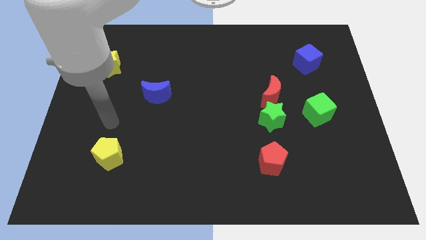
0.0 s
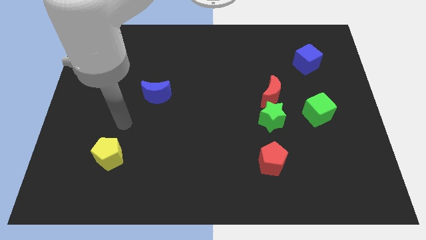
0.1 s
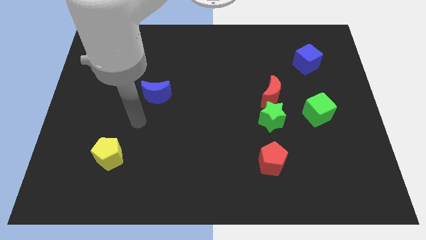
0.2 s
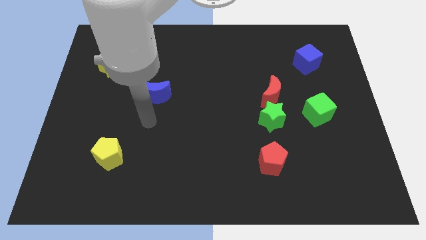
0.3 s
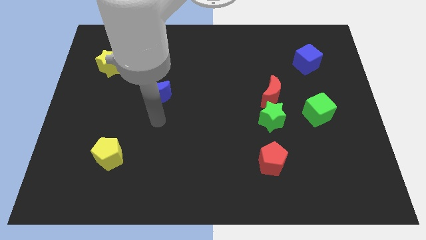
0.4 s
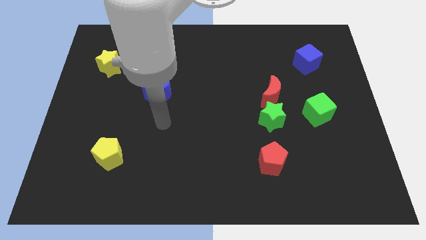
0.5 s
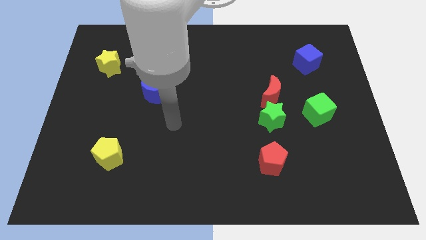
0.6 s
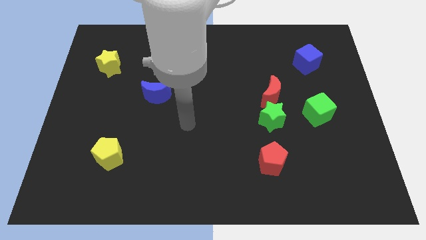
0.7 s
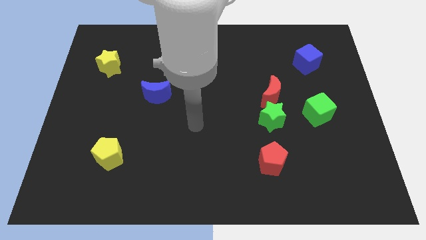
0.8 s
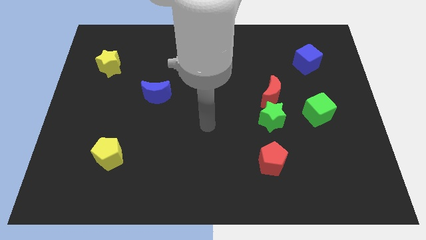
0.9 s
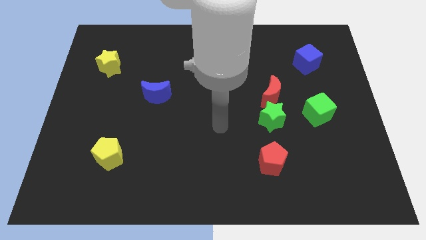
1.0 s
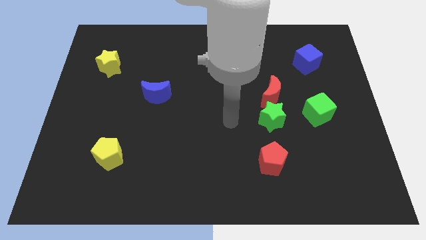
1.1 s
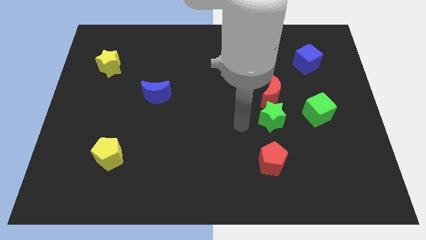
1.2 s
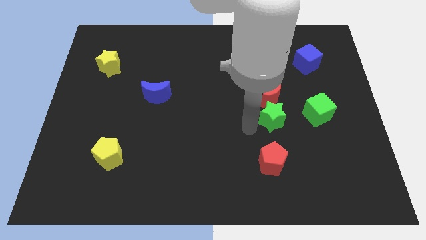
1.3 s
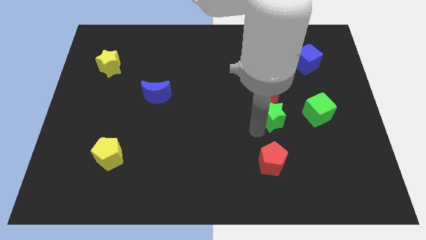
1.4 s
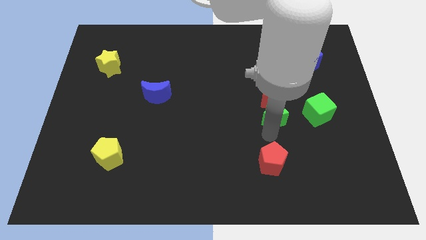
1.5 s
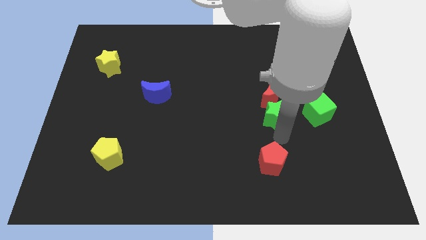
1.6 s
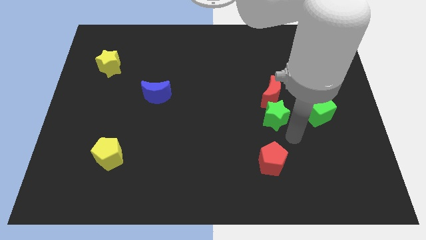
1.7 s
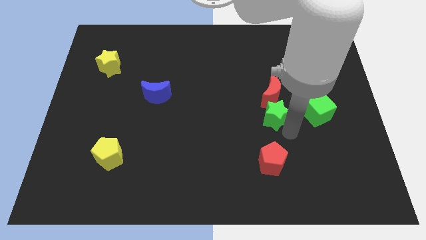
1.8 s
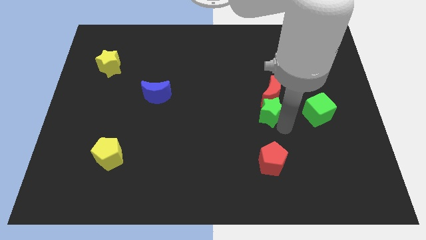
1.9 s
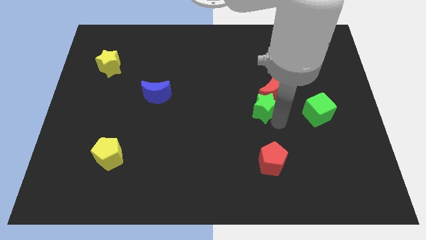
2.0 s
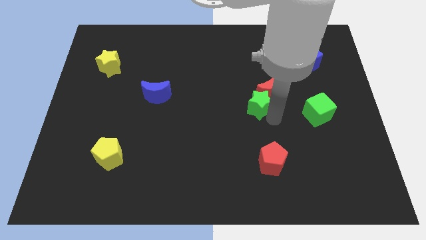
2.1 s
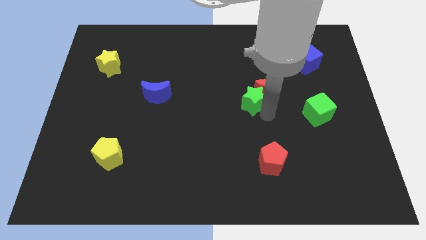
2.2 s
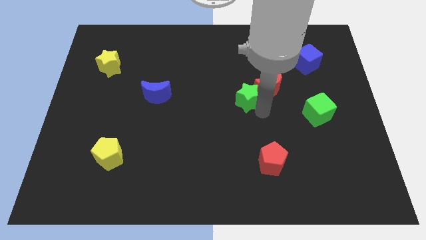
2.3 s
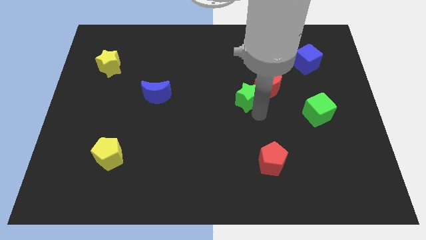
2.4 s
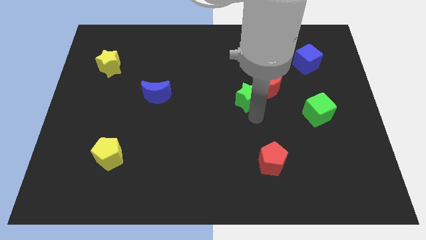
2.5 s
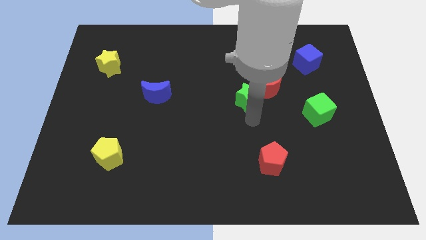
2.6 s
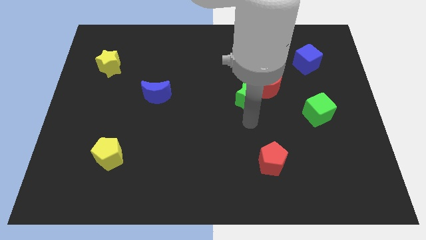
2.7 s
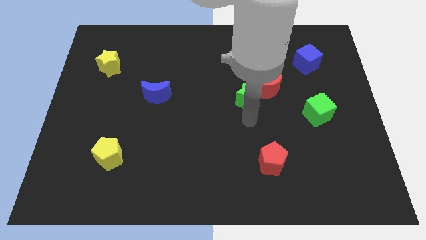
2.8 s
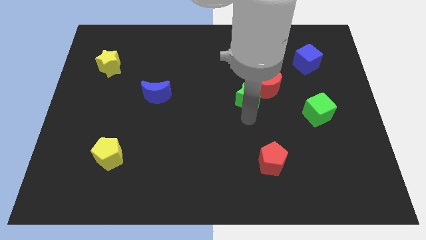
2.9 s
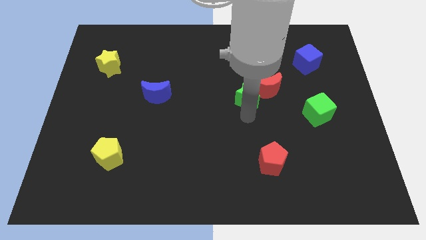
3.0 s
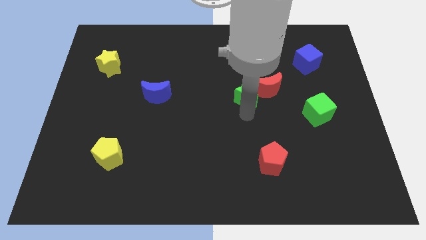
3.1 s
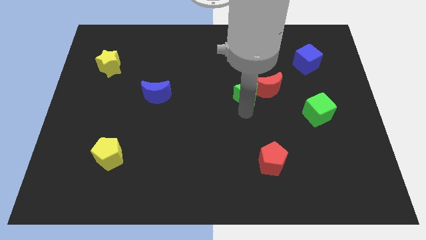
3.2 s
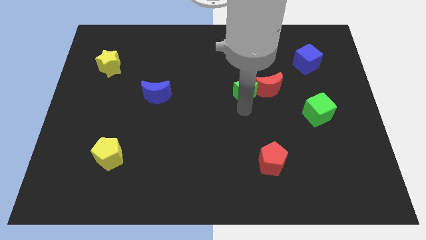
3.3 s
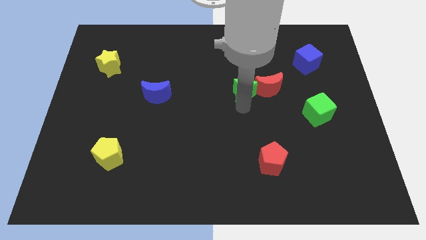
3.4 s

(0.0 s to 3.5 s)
push the green star up a little

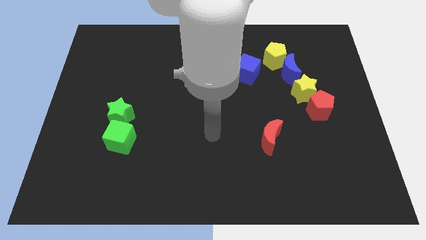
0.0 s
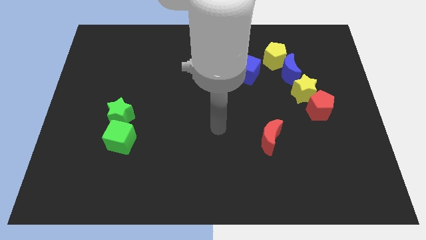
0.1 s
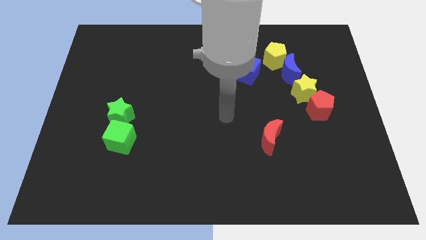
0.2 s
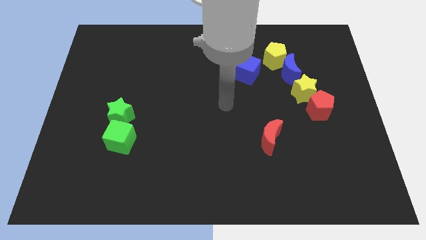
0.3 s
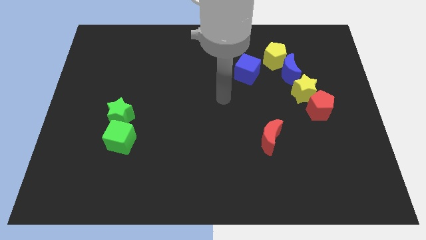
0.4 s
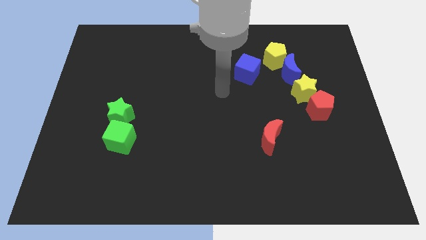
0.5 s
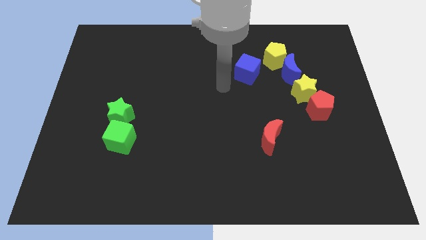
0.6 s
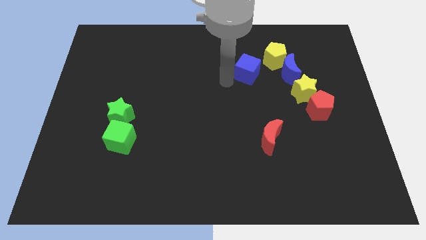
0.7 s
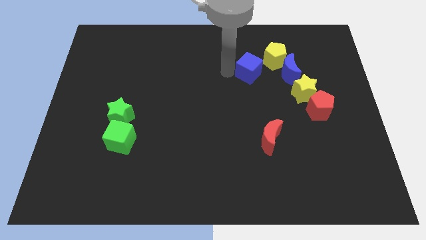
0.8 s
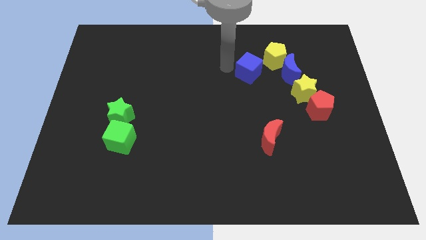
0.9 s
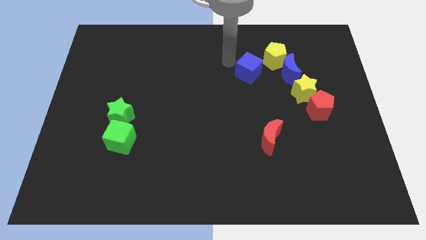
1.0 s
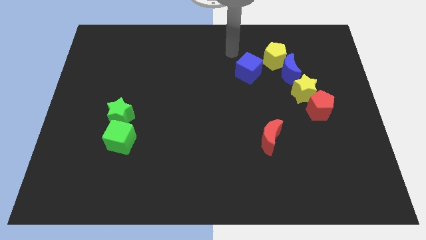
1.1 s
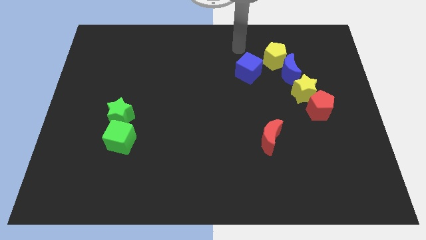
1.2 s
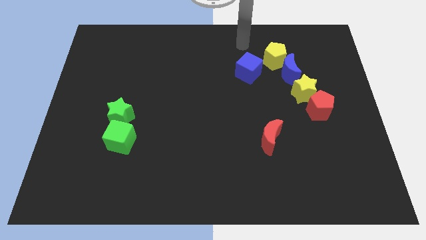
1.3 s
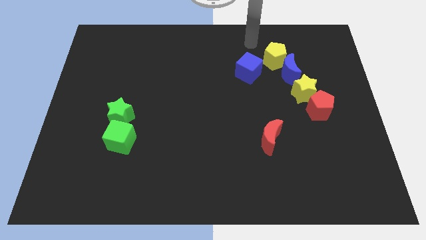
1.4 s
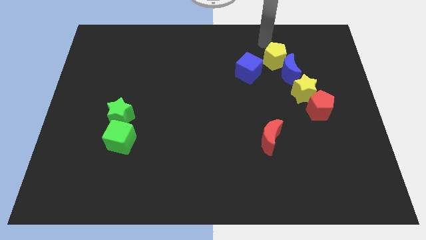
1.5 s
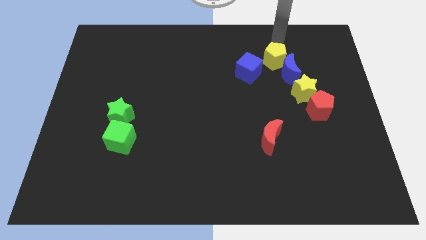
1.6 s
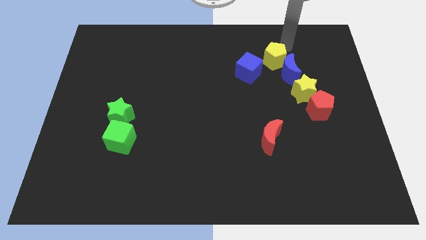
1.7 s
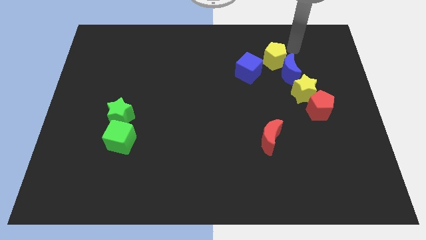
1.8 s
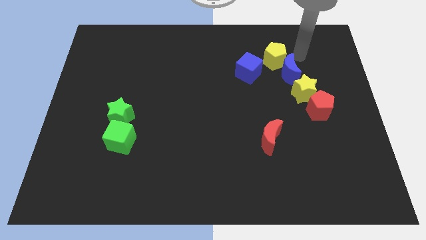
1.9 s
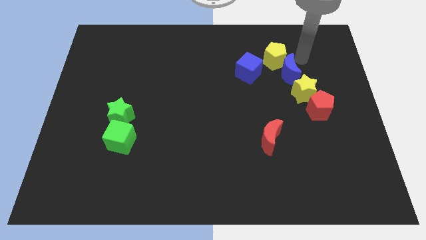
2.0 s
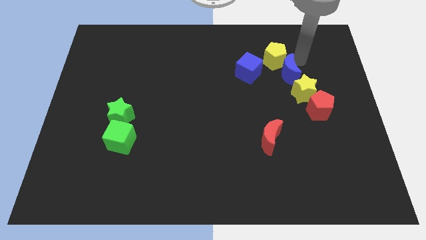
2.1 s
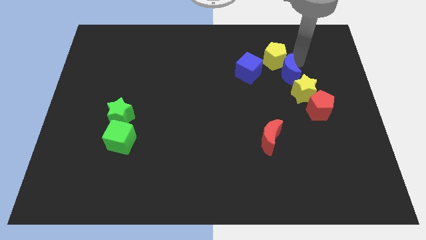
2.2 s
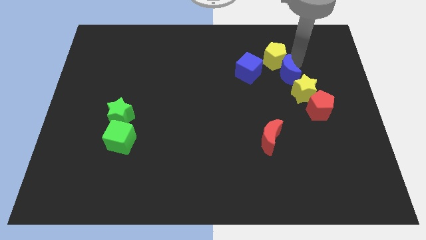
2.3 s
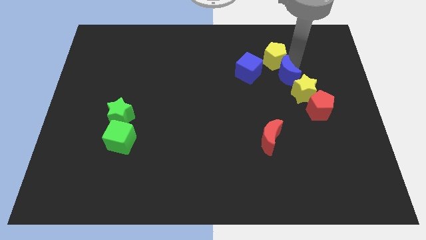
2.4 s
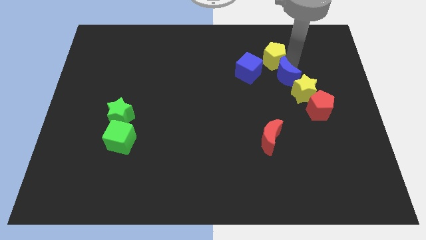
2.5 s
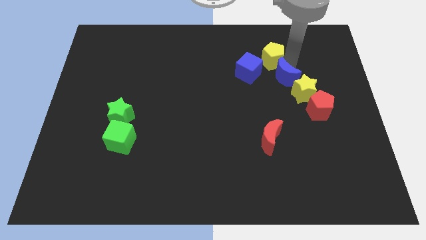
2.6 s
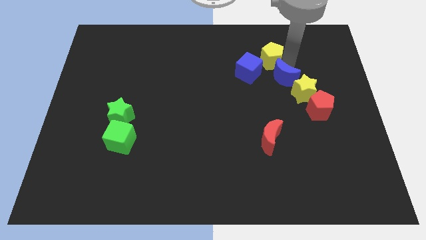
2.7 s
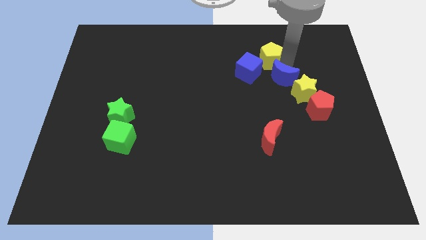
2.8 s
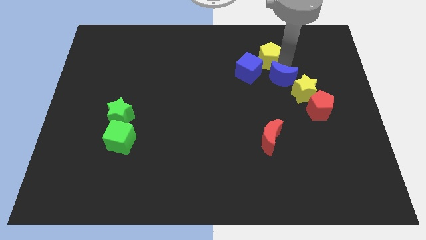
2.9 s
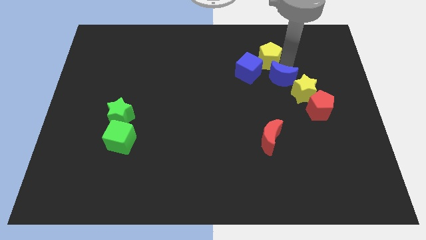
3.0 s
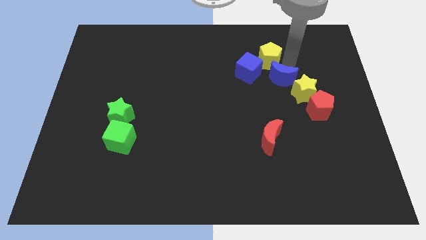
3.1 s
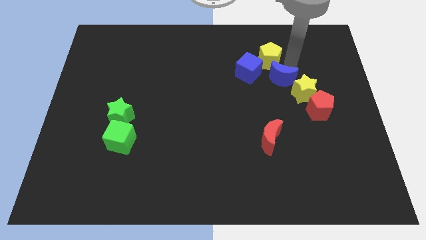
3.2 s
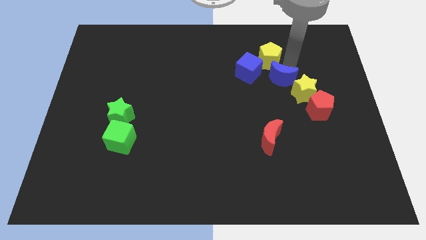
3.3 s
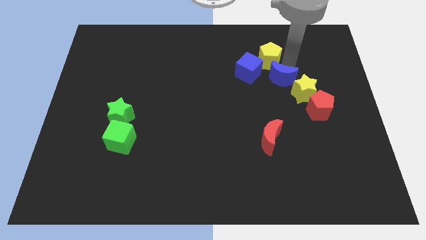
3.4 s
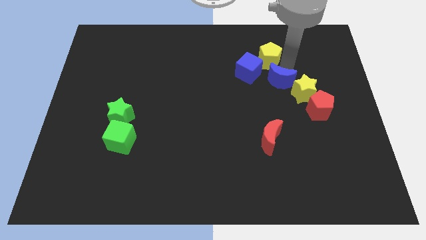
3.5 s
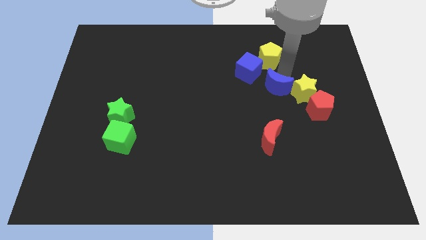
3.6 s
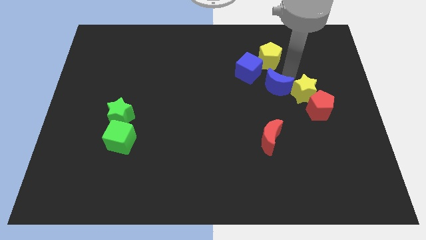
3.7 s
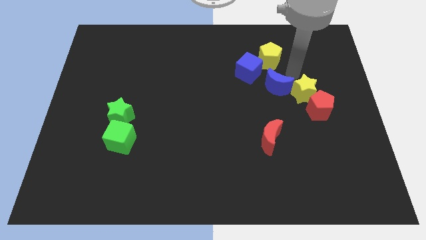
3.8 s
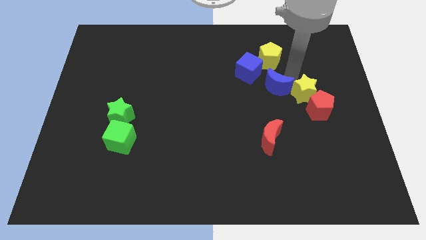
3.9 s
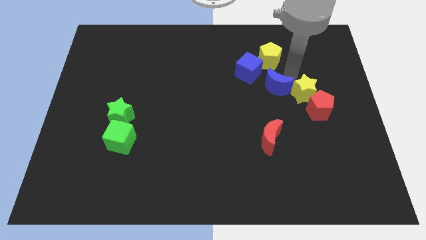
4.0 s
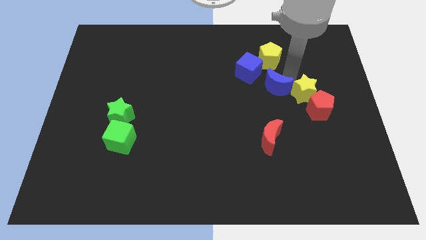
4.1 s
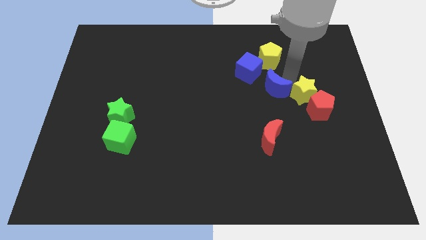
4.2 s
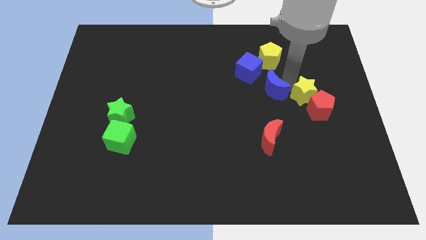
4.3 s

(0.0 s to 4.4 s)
move the blue moon somewhat downwards and left
